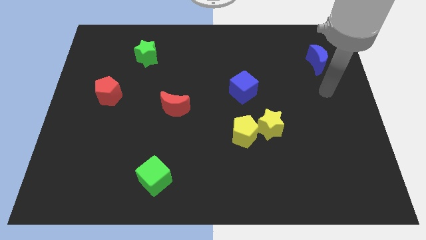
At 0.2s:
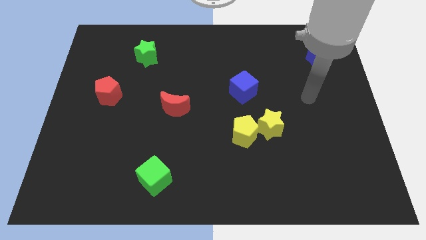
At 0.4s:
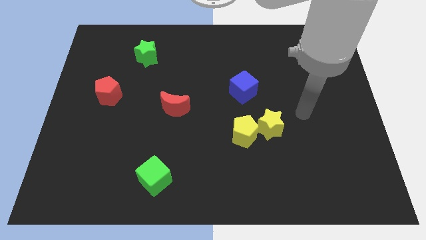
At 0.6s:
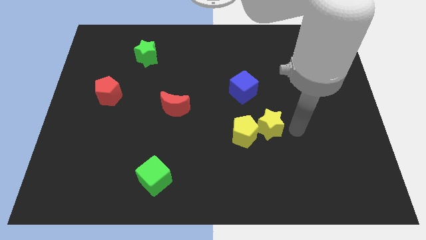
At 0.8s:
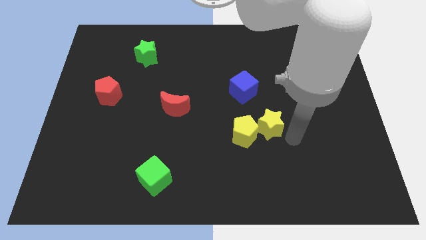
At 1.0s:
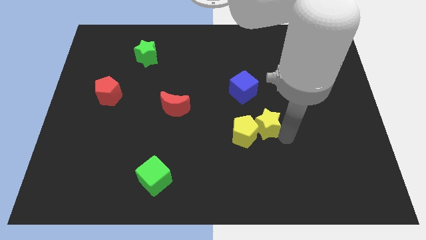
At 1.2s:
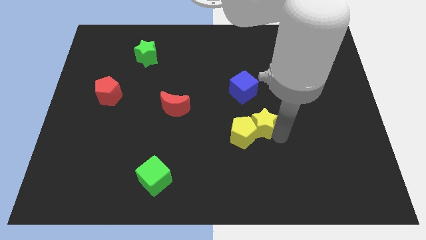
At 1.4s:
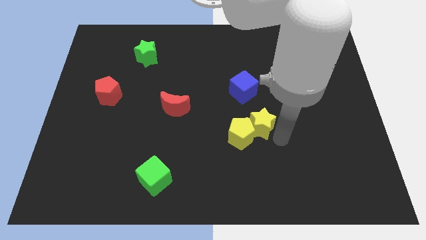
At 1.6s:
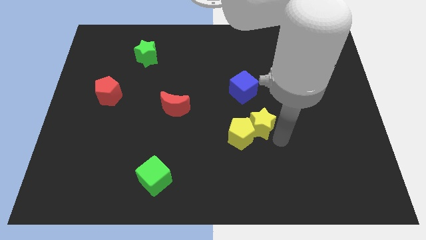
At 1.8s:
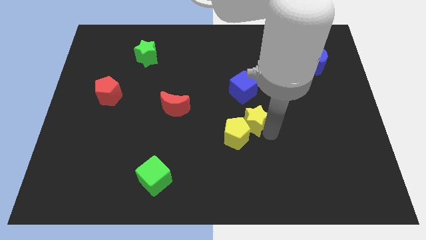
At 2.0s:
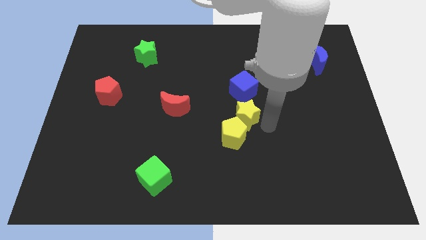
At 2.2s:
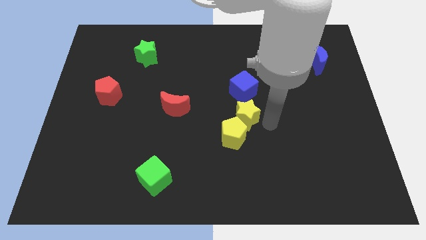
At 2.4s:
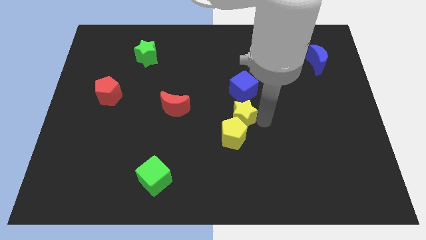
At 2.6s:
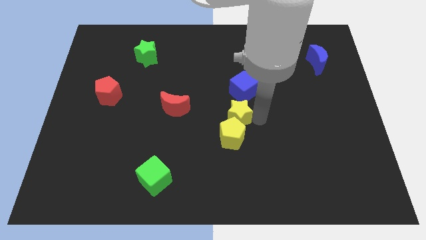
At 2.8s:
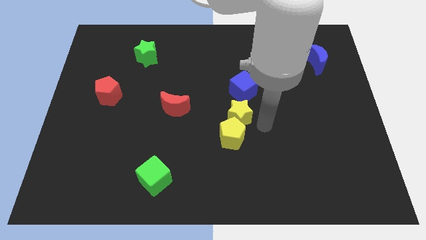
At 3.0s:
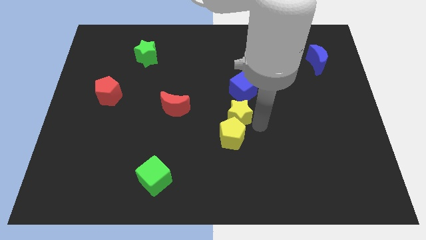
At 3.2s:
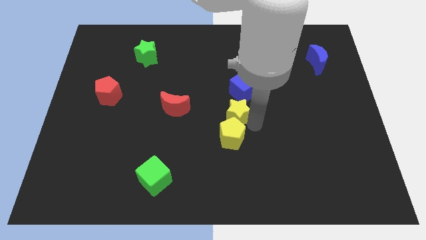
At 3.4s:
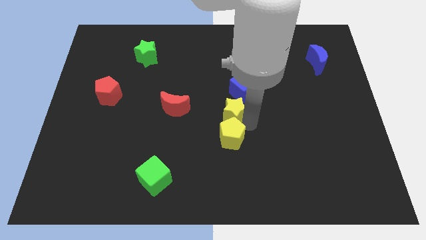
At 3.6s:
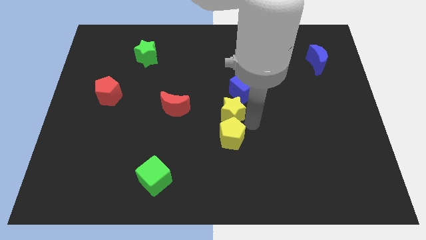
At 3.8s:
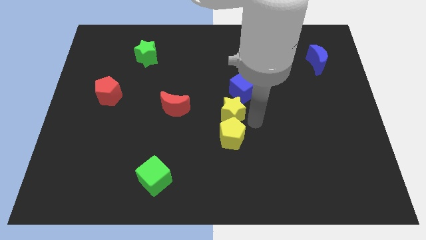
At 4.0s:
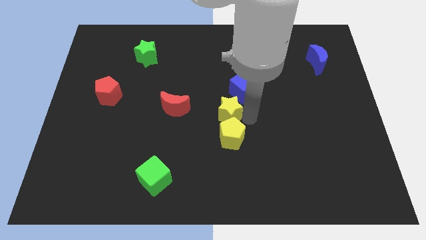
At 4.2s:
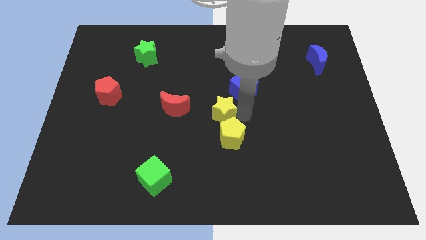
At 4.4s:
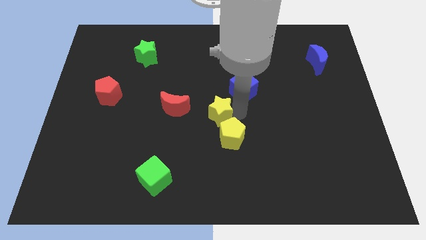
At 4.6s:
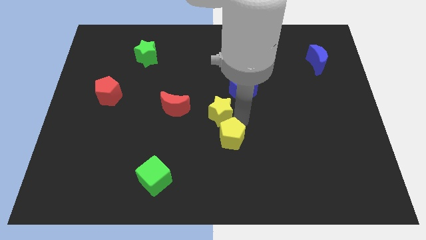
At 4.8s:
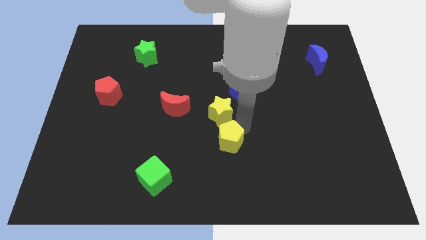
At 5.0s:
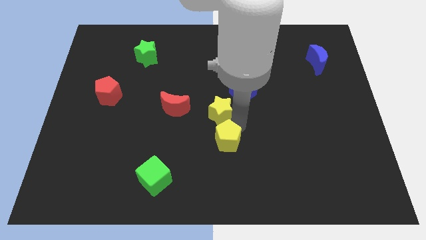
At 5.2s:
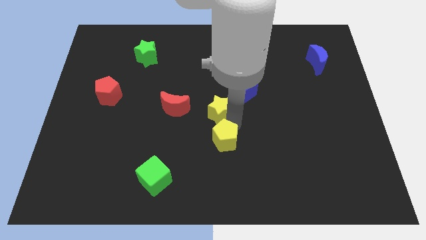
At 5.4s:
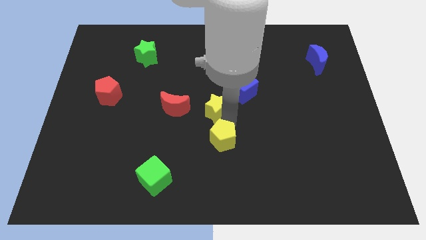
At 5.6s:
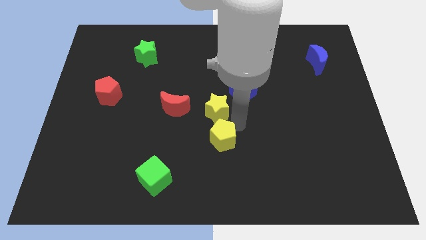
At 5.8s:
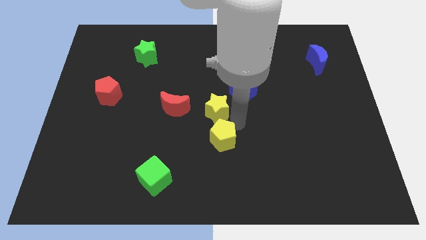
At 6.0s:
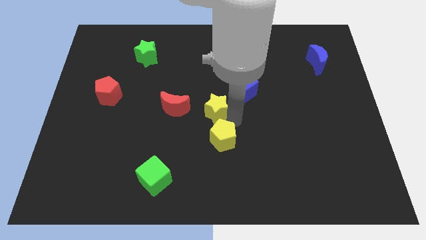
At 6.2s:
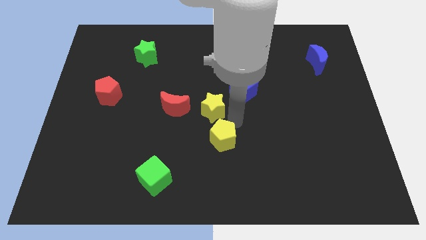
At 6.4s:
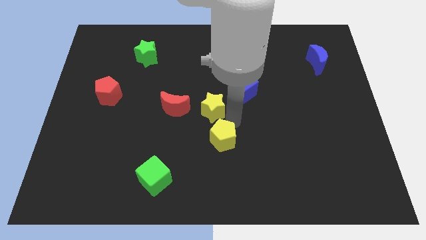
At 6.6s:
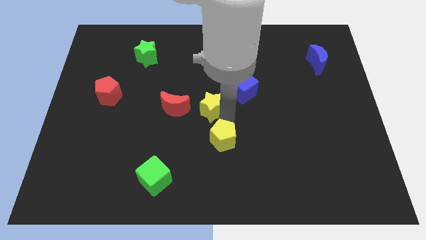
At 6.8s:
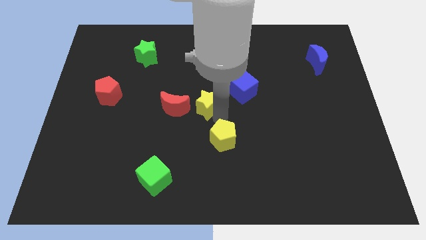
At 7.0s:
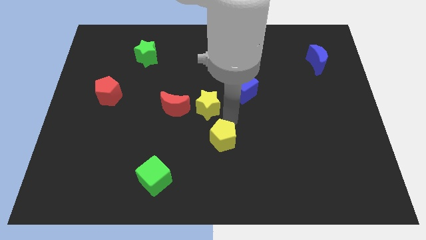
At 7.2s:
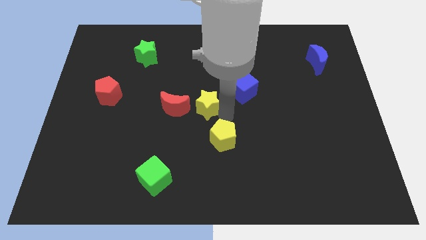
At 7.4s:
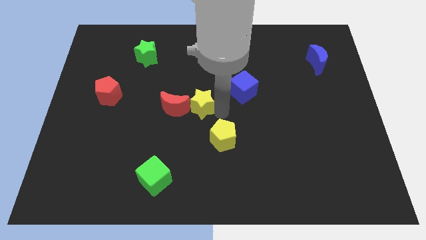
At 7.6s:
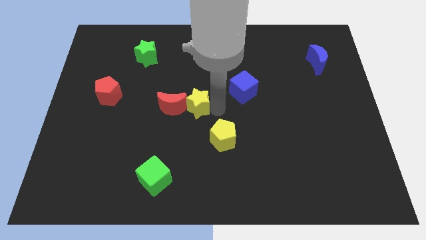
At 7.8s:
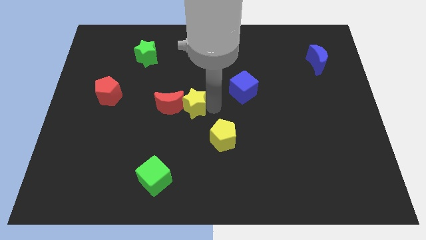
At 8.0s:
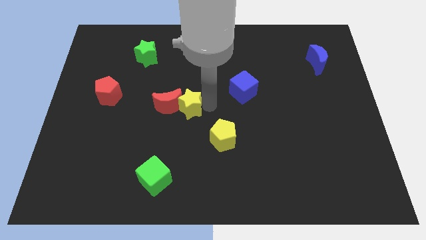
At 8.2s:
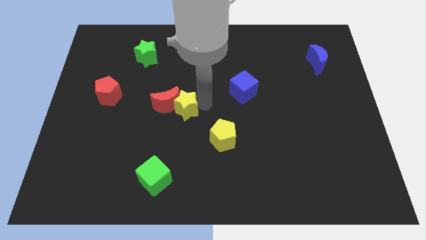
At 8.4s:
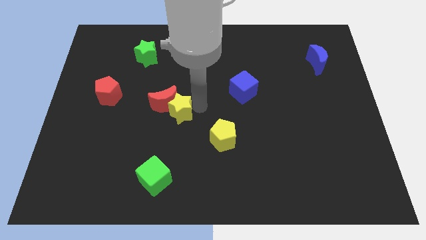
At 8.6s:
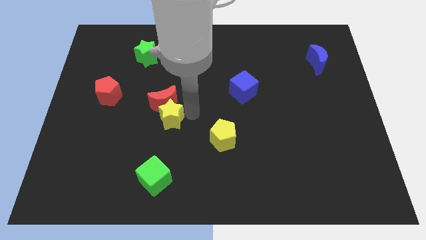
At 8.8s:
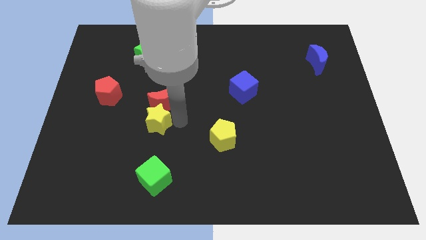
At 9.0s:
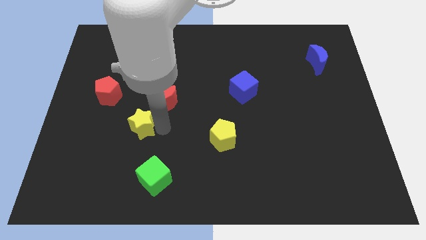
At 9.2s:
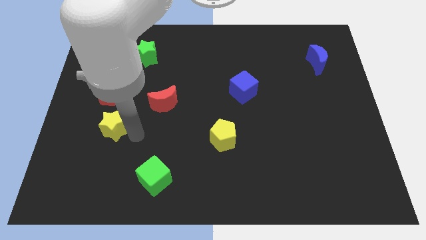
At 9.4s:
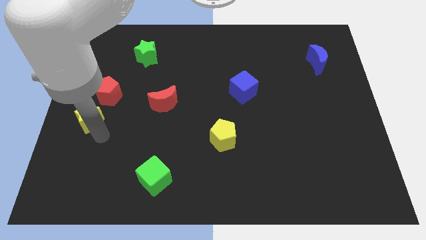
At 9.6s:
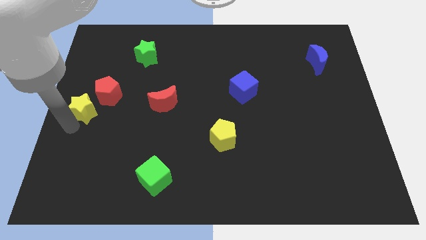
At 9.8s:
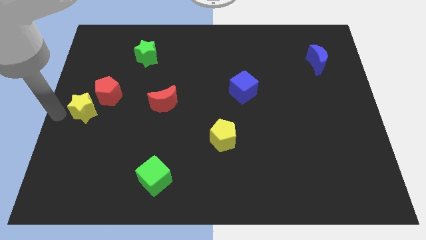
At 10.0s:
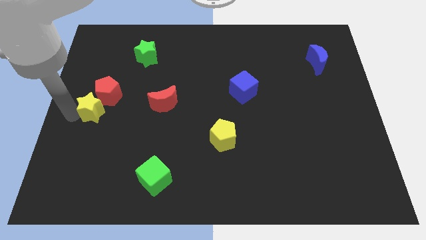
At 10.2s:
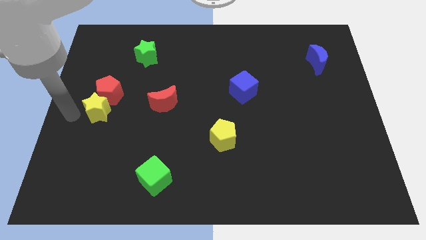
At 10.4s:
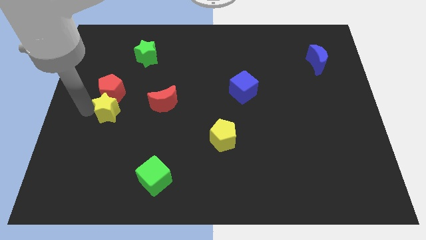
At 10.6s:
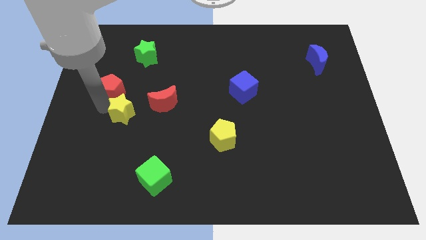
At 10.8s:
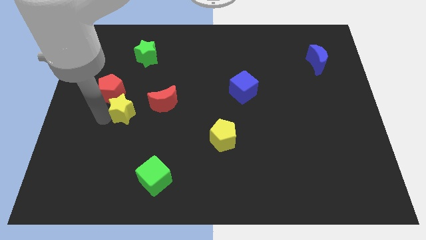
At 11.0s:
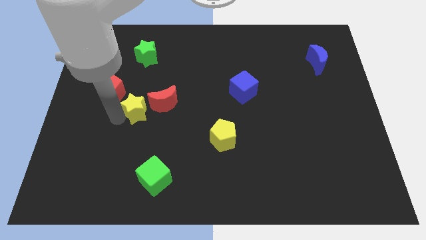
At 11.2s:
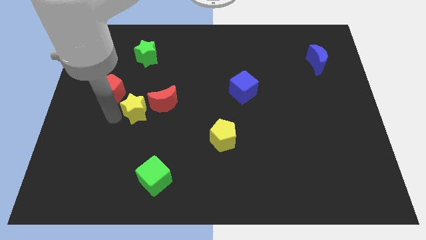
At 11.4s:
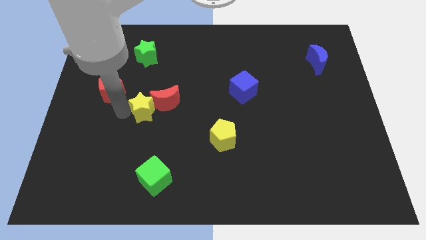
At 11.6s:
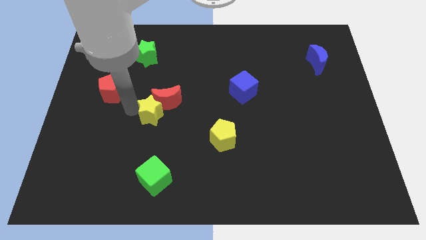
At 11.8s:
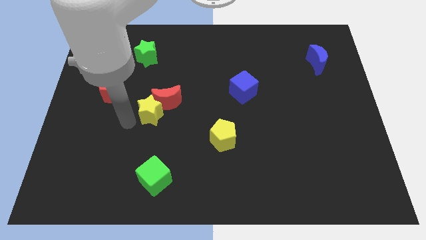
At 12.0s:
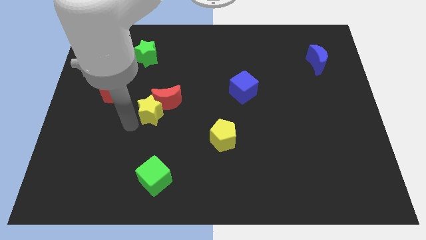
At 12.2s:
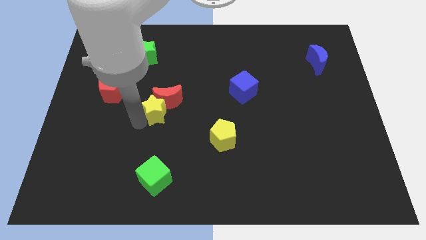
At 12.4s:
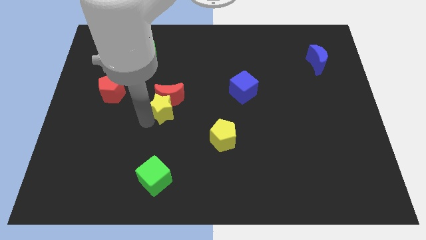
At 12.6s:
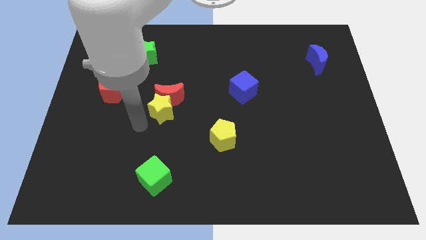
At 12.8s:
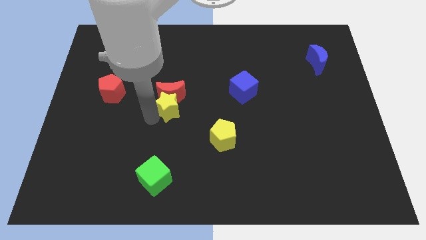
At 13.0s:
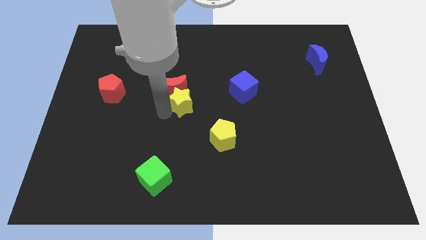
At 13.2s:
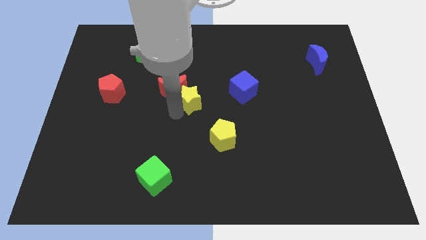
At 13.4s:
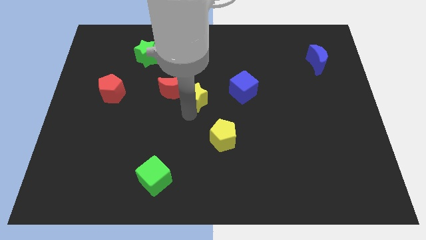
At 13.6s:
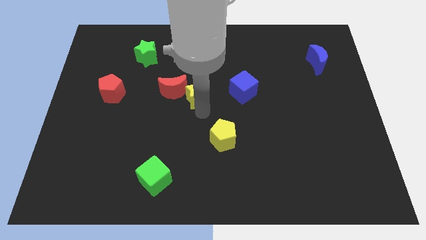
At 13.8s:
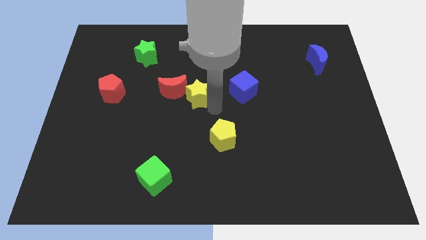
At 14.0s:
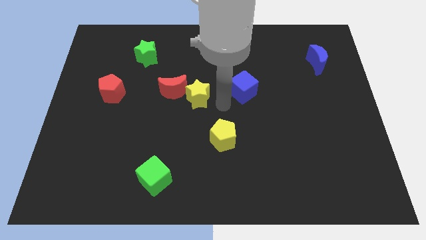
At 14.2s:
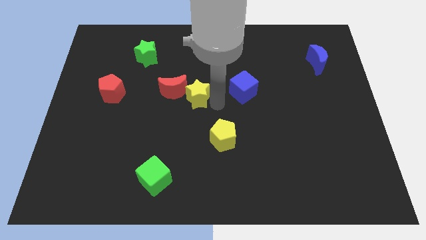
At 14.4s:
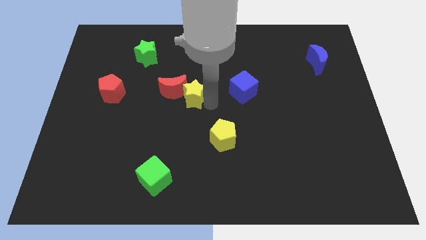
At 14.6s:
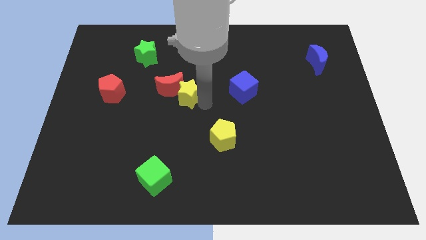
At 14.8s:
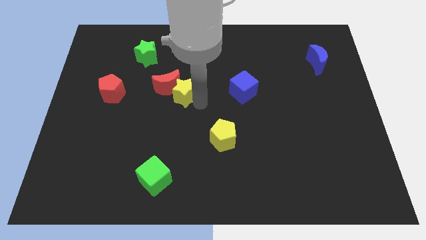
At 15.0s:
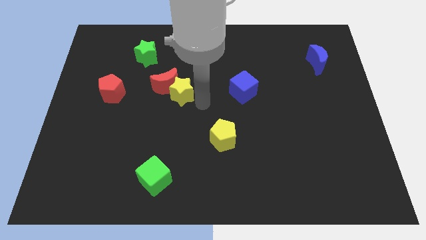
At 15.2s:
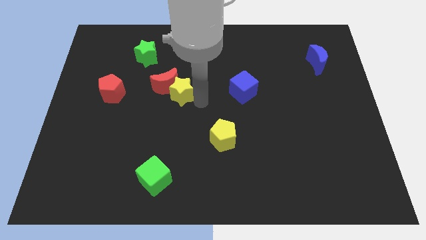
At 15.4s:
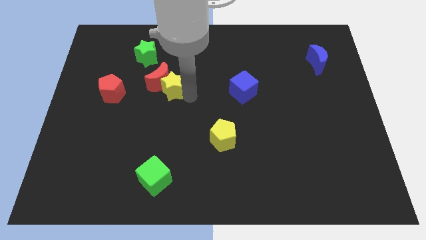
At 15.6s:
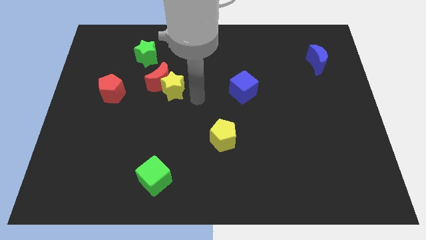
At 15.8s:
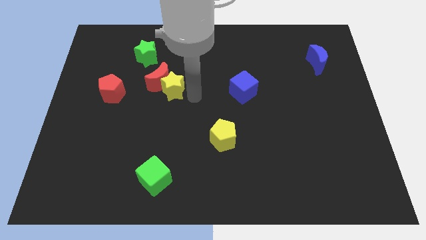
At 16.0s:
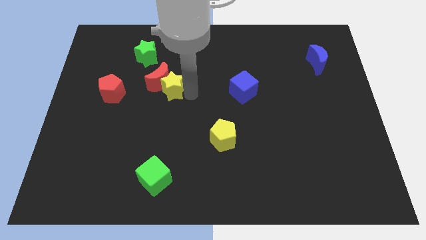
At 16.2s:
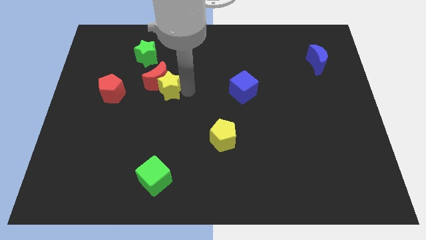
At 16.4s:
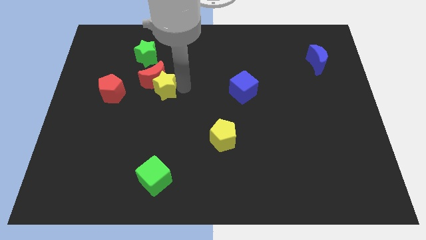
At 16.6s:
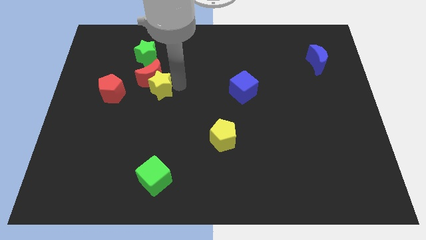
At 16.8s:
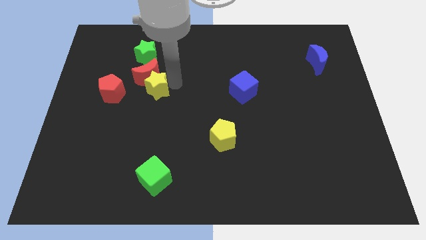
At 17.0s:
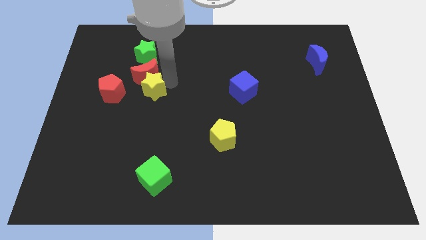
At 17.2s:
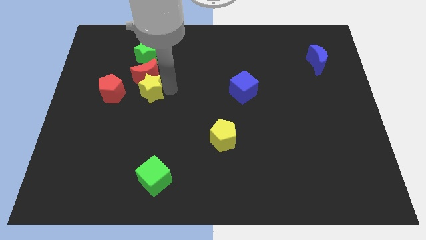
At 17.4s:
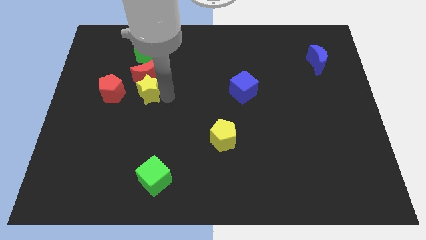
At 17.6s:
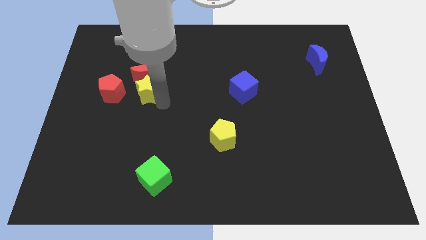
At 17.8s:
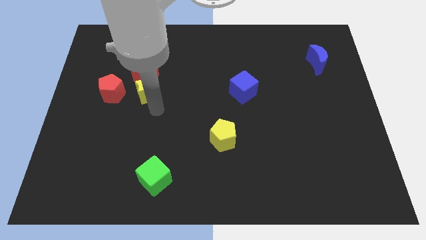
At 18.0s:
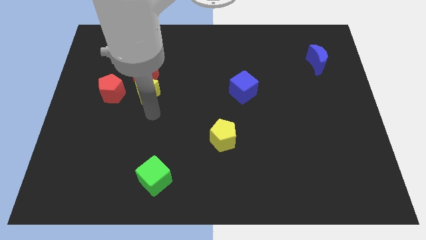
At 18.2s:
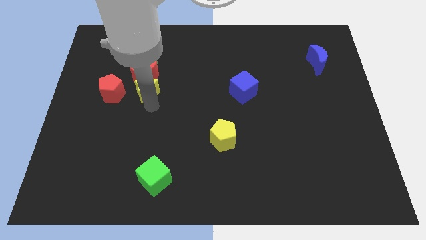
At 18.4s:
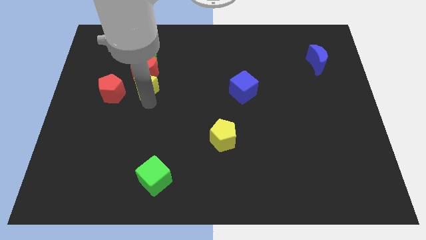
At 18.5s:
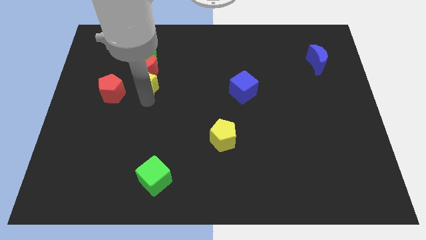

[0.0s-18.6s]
slide the yellow star to the top right of the red pentagon
